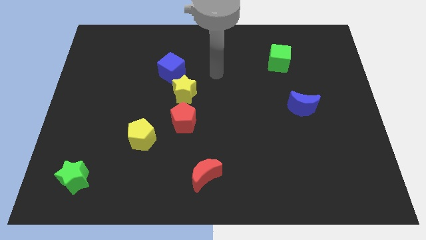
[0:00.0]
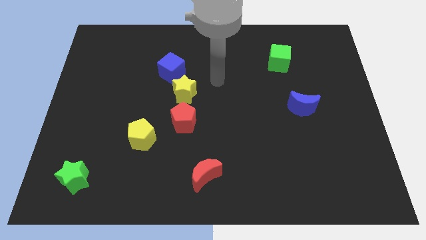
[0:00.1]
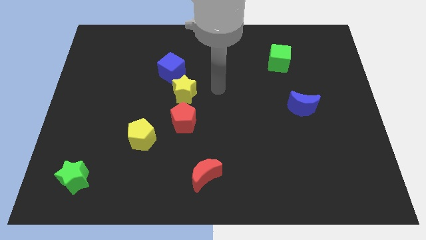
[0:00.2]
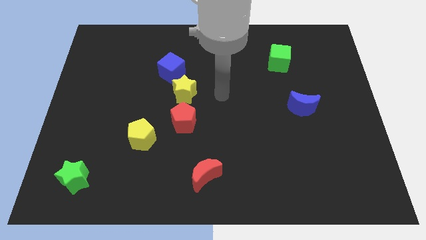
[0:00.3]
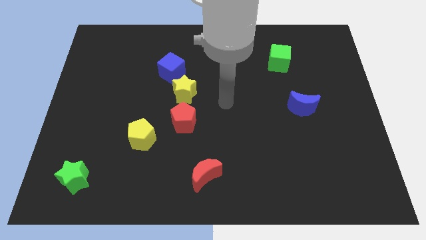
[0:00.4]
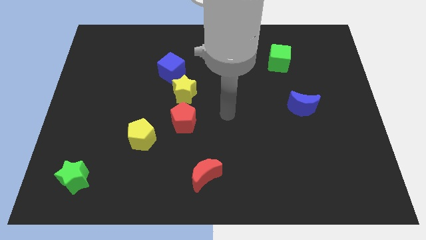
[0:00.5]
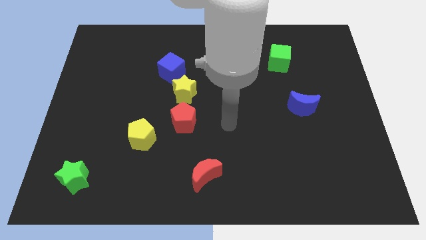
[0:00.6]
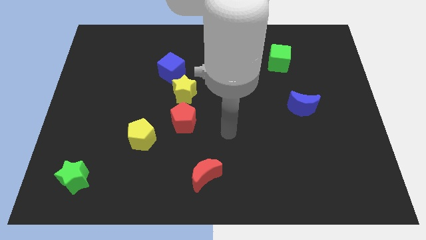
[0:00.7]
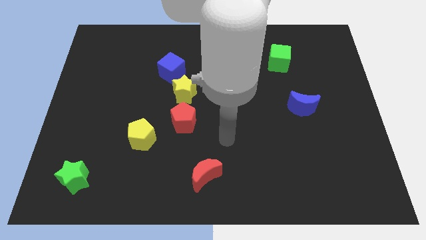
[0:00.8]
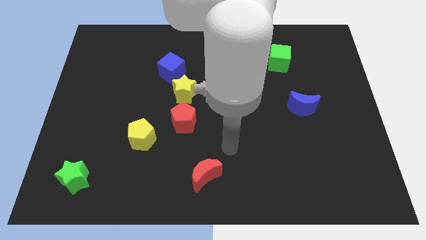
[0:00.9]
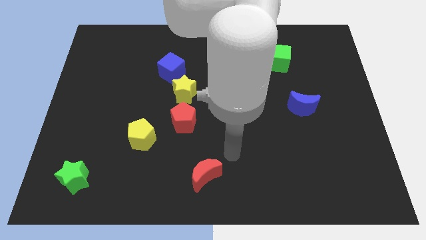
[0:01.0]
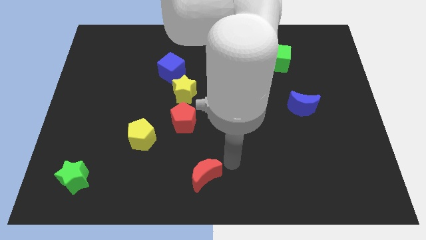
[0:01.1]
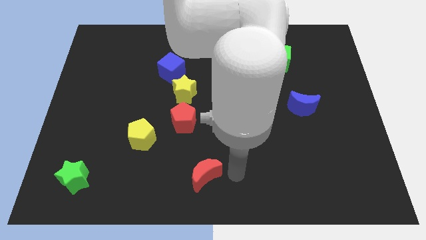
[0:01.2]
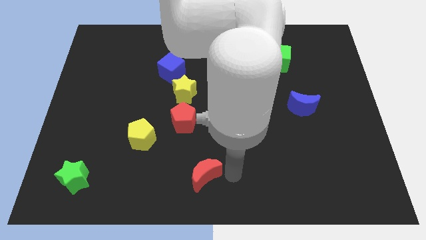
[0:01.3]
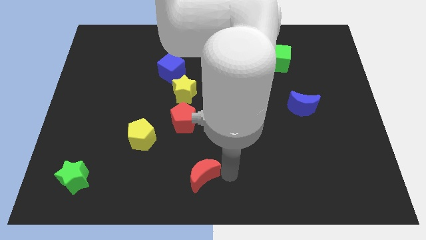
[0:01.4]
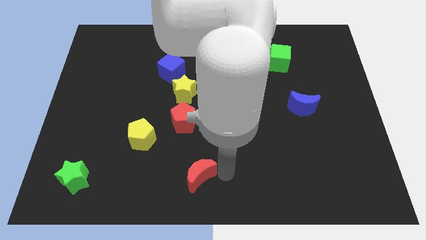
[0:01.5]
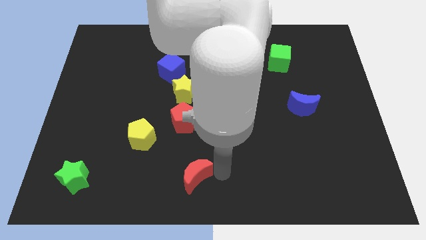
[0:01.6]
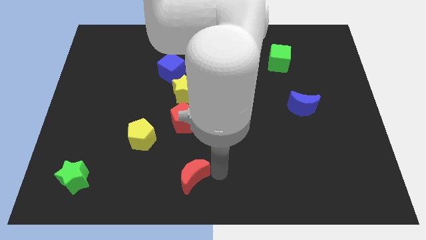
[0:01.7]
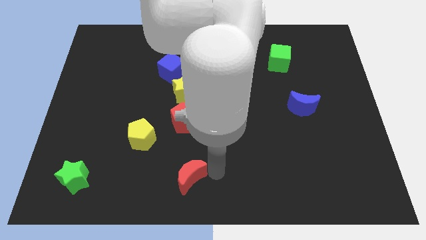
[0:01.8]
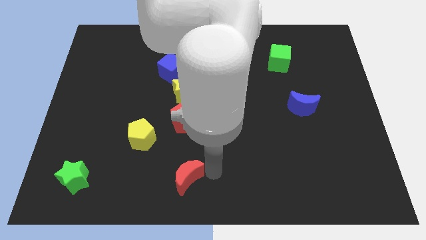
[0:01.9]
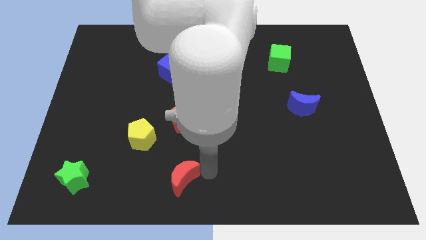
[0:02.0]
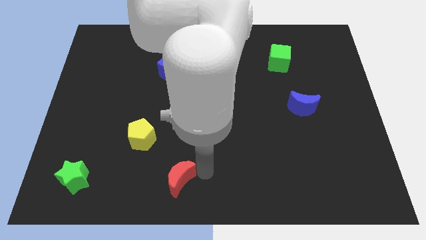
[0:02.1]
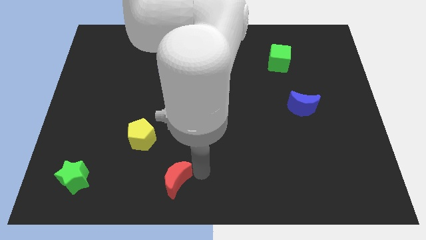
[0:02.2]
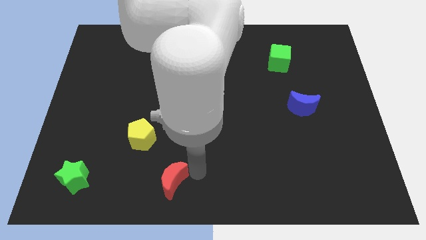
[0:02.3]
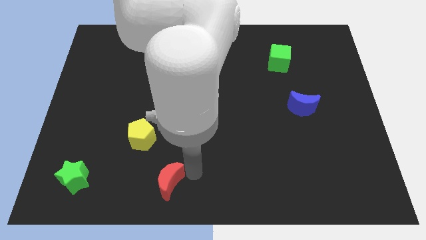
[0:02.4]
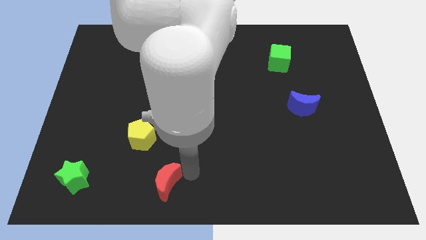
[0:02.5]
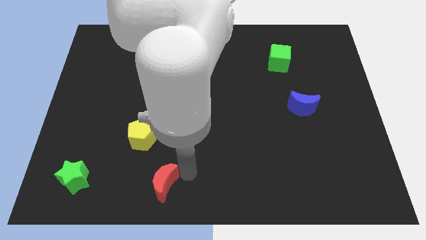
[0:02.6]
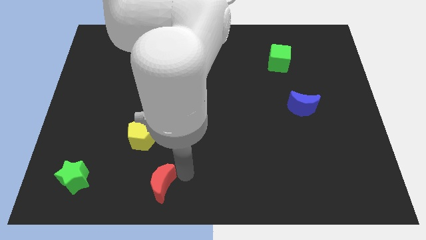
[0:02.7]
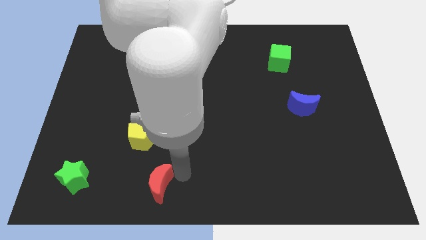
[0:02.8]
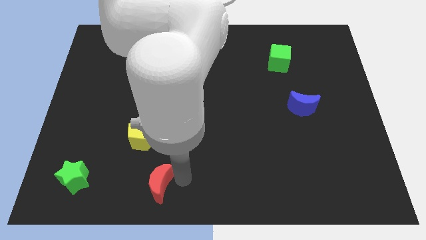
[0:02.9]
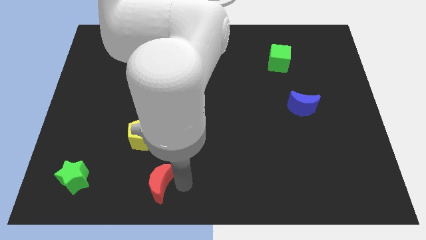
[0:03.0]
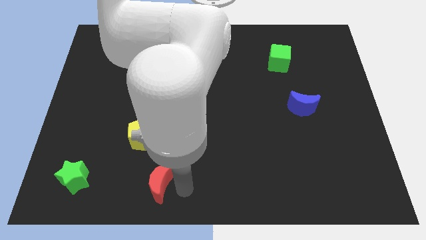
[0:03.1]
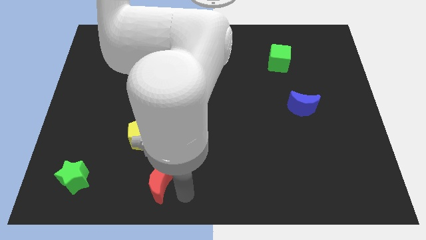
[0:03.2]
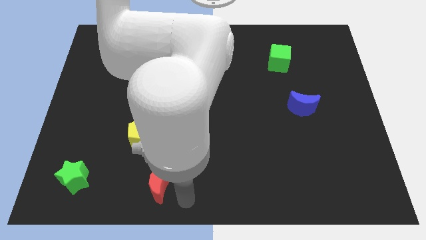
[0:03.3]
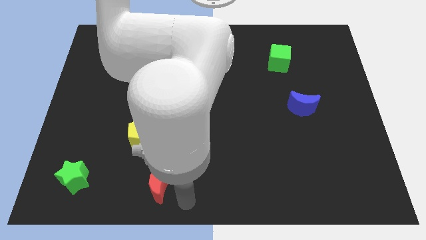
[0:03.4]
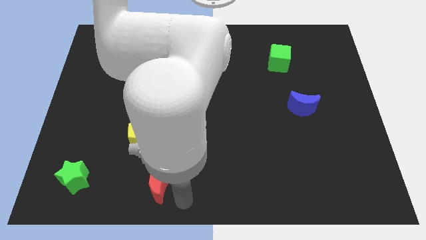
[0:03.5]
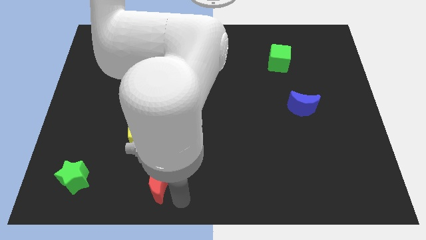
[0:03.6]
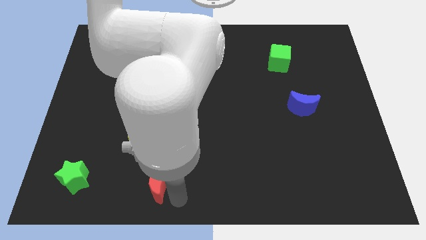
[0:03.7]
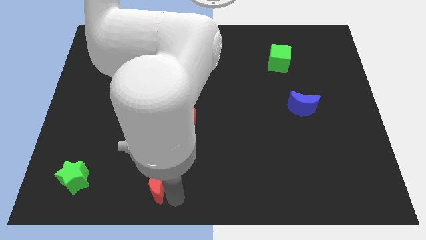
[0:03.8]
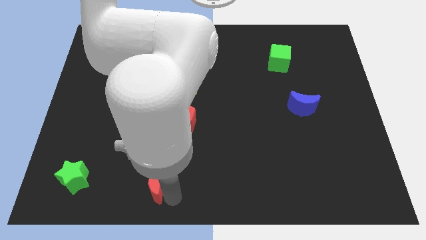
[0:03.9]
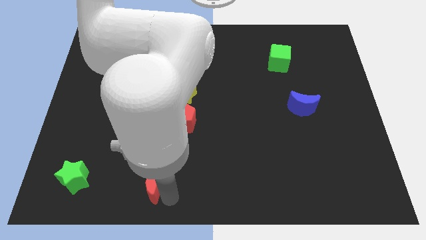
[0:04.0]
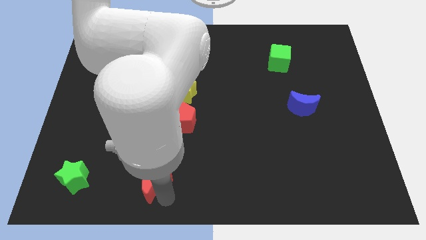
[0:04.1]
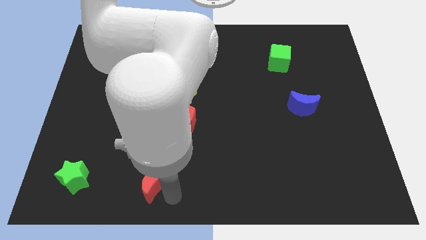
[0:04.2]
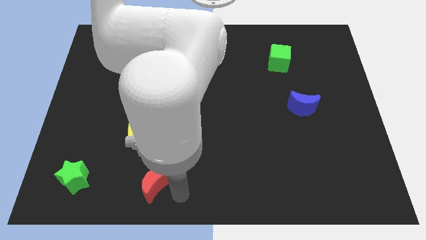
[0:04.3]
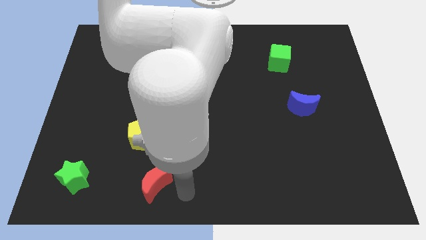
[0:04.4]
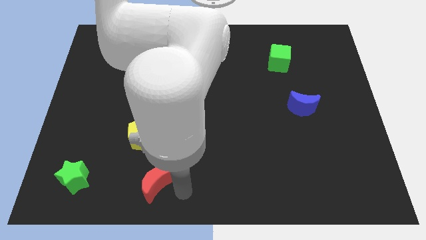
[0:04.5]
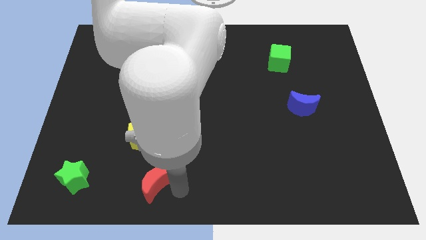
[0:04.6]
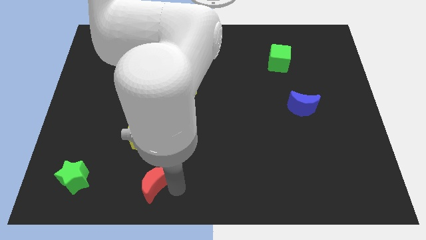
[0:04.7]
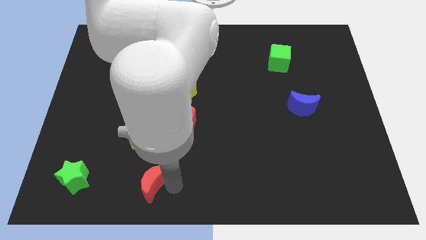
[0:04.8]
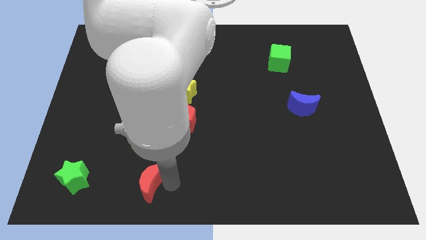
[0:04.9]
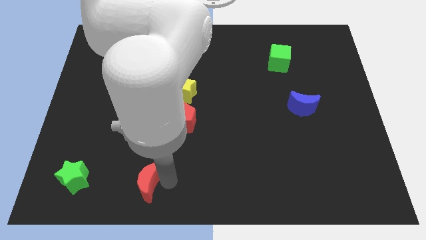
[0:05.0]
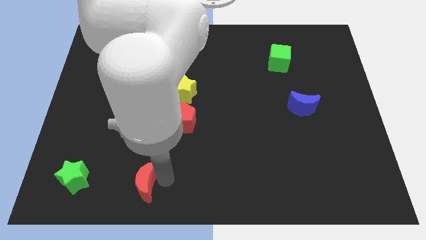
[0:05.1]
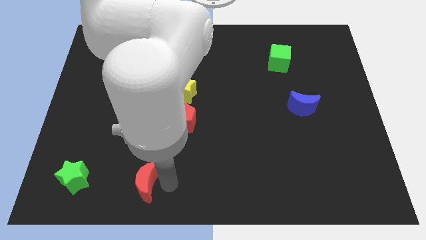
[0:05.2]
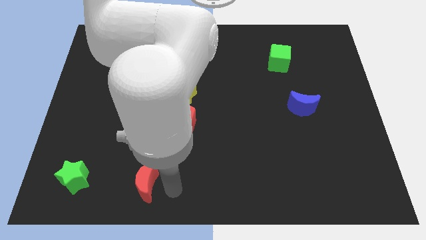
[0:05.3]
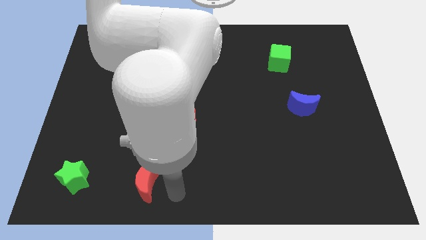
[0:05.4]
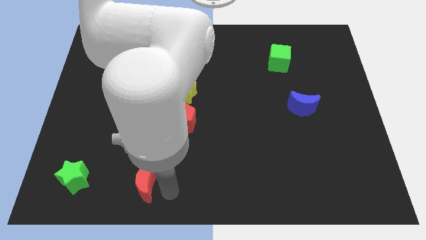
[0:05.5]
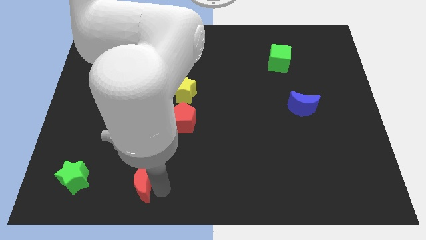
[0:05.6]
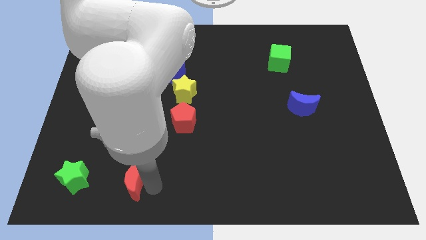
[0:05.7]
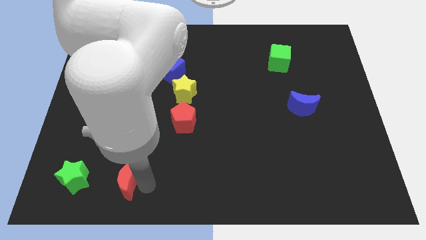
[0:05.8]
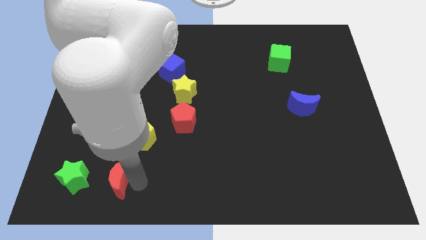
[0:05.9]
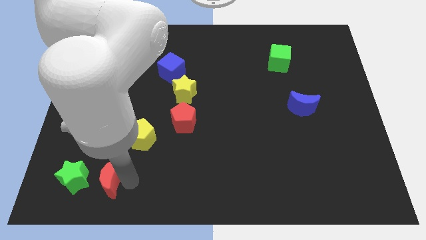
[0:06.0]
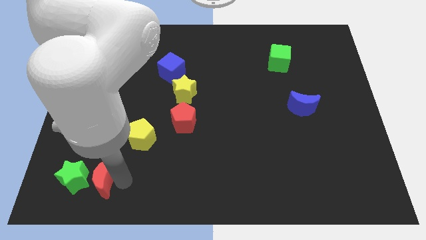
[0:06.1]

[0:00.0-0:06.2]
move the red moon towards the green star
